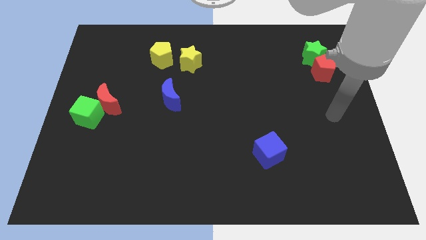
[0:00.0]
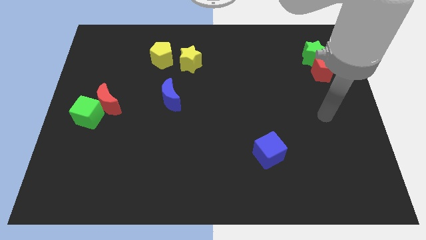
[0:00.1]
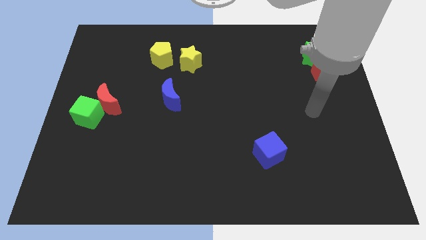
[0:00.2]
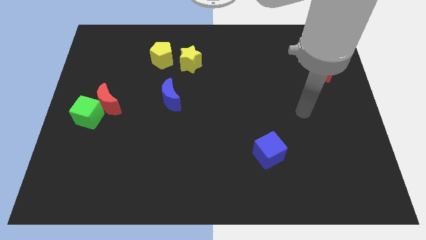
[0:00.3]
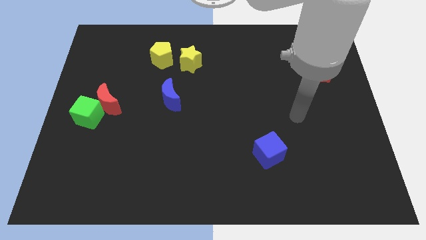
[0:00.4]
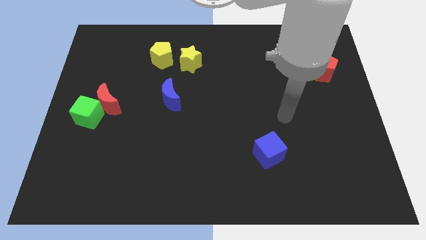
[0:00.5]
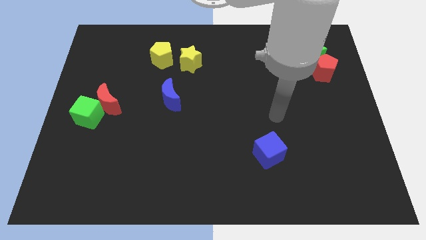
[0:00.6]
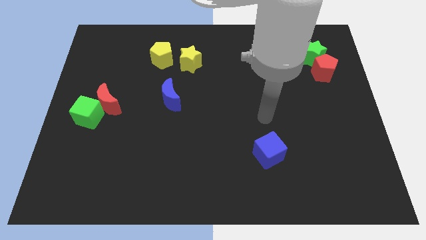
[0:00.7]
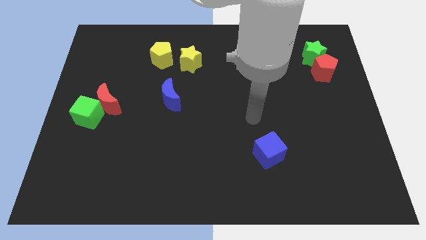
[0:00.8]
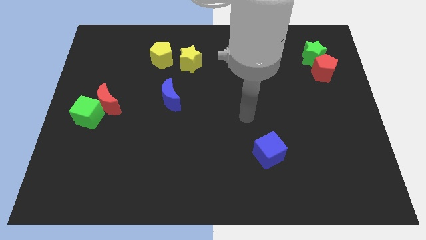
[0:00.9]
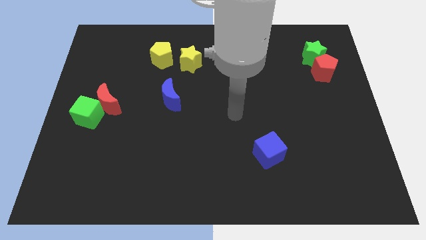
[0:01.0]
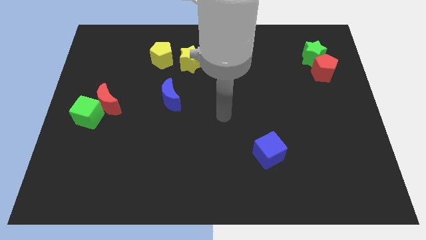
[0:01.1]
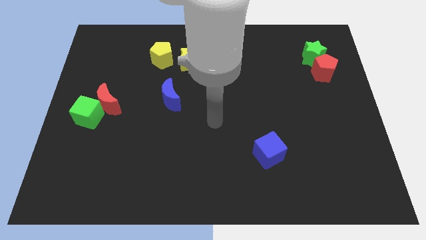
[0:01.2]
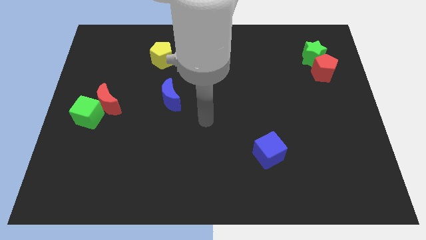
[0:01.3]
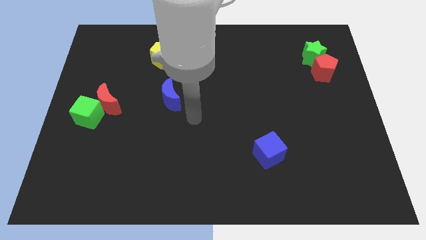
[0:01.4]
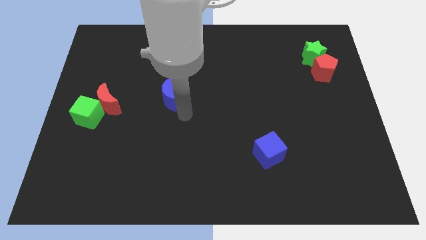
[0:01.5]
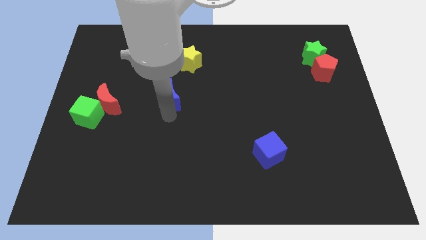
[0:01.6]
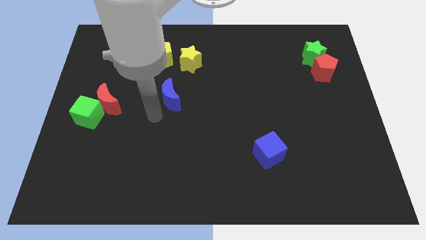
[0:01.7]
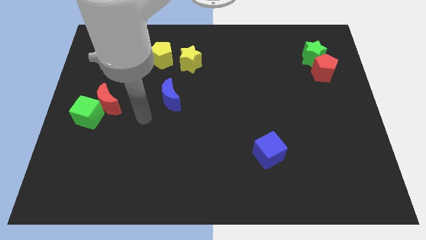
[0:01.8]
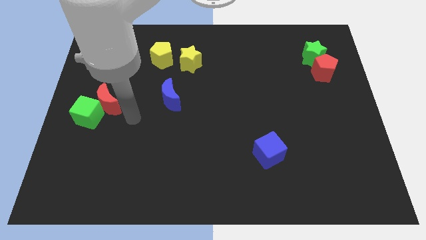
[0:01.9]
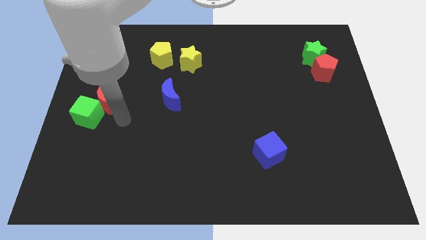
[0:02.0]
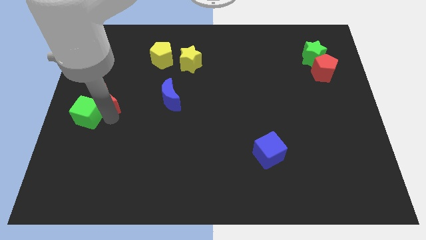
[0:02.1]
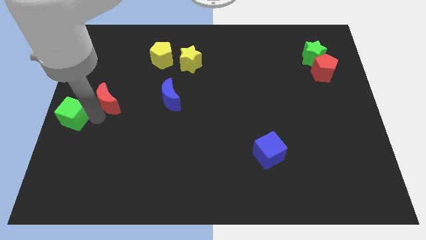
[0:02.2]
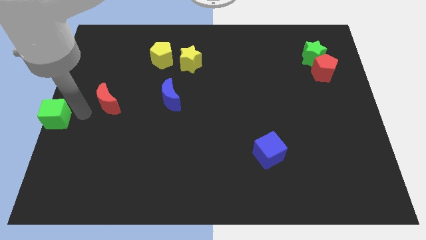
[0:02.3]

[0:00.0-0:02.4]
pull the red moon apart from the green cube

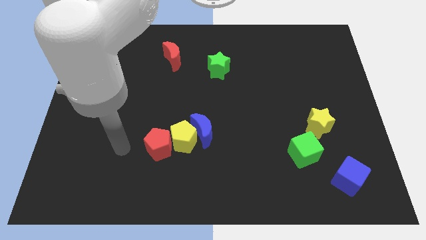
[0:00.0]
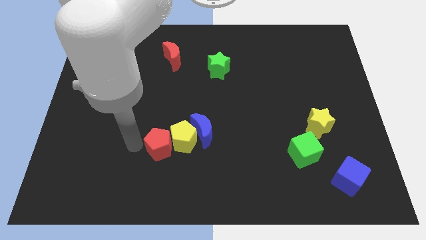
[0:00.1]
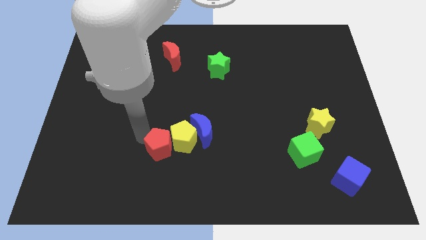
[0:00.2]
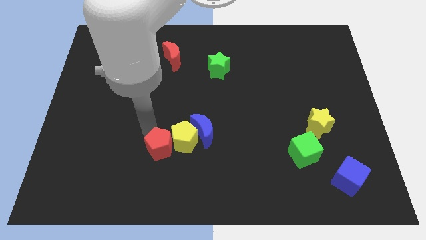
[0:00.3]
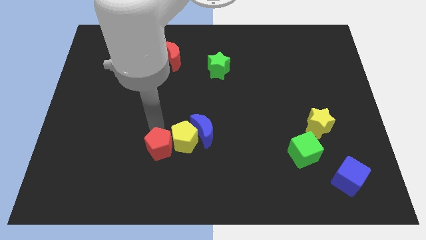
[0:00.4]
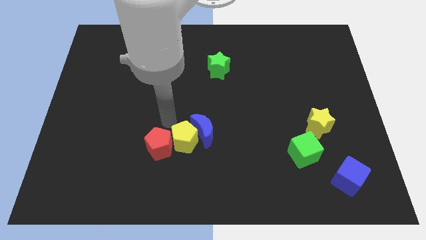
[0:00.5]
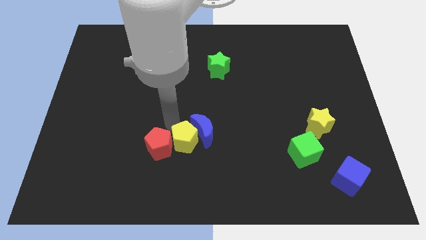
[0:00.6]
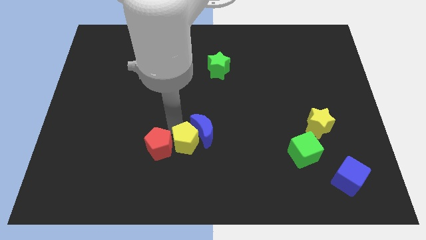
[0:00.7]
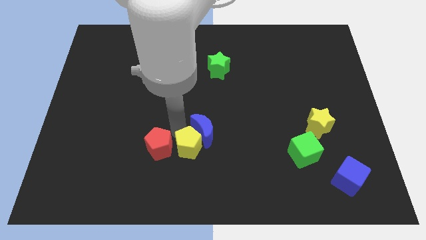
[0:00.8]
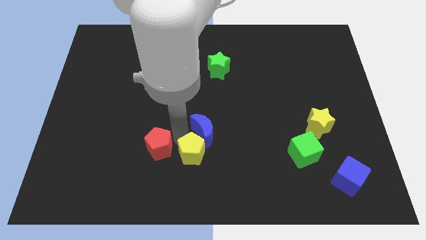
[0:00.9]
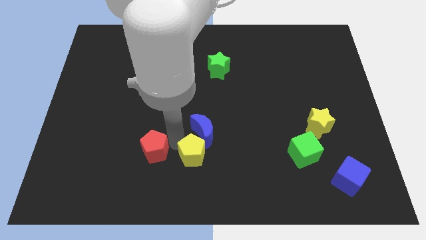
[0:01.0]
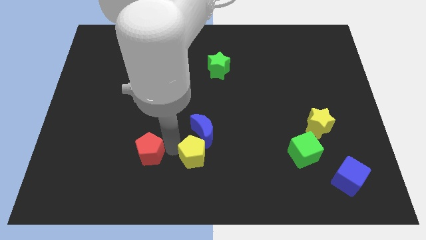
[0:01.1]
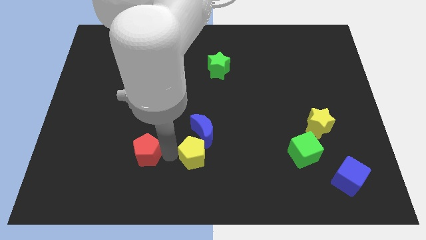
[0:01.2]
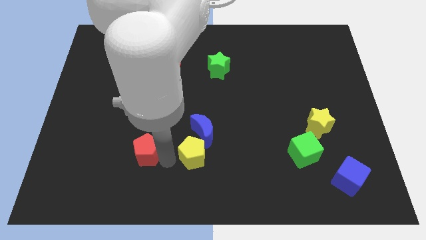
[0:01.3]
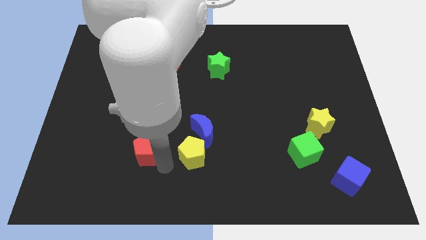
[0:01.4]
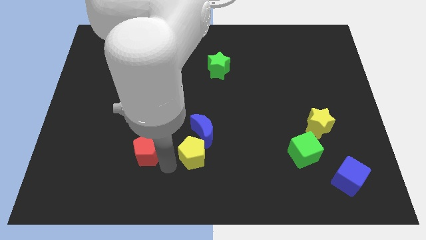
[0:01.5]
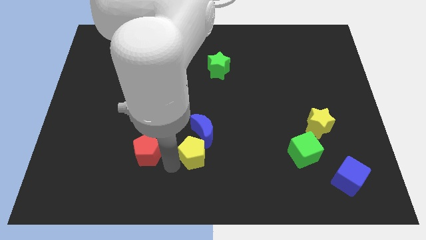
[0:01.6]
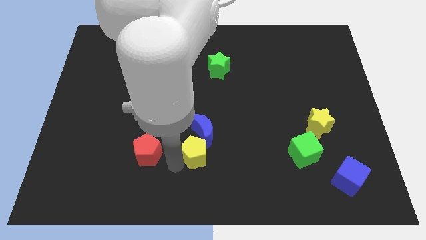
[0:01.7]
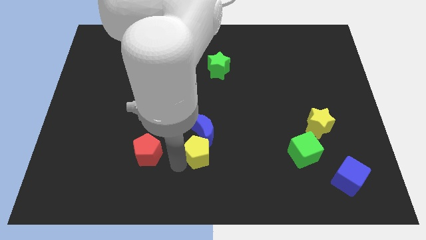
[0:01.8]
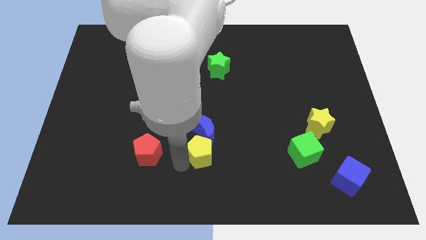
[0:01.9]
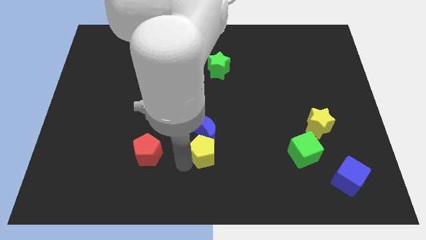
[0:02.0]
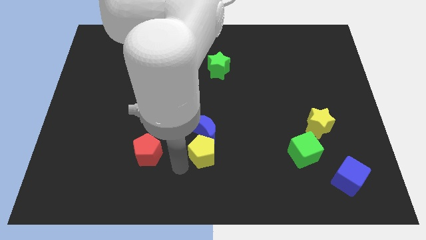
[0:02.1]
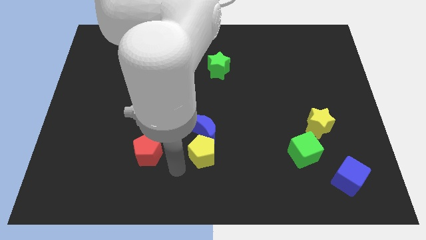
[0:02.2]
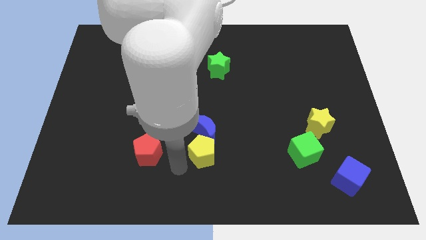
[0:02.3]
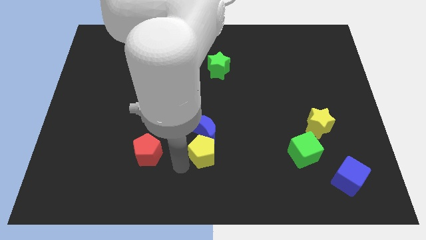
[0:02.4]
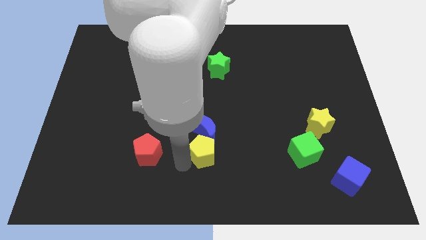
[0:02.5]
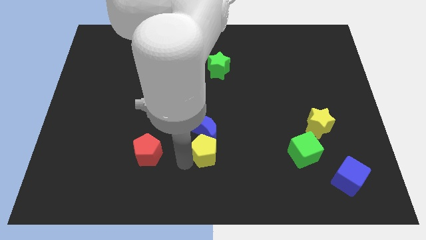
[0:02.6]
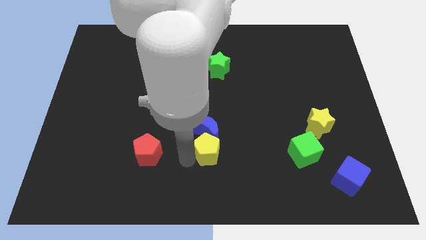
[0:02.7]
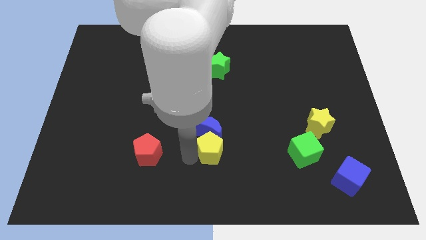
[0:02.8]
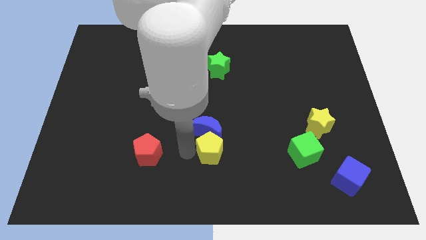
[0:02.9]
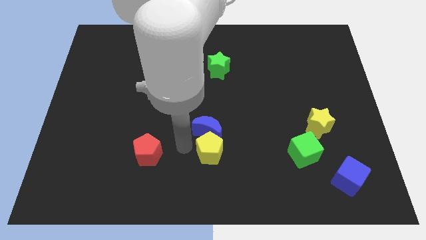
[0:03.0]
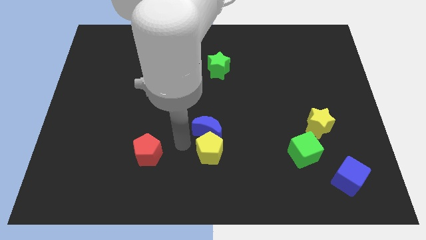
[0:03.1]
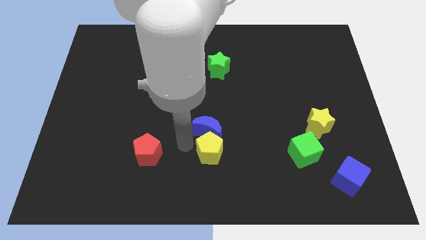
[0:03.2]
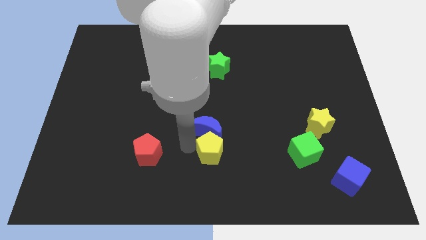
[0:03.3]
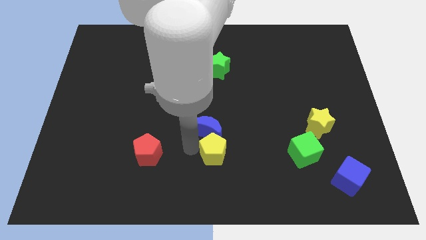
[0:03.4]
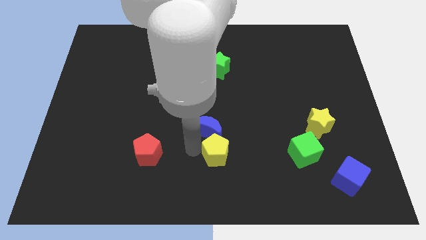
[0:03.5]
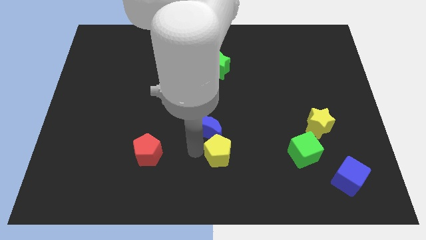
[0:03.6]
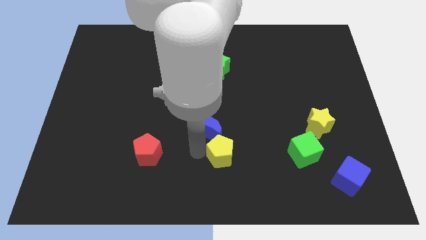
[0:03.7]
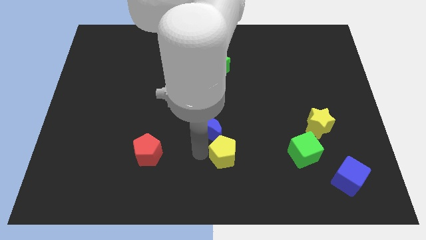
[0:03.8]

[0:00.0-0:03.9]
separate the yellow pentagon from the blue moon and red pentagon

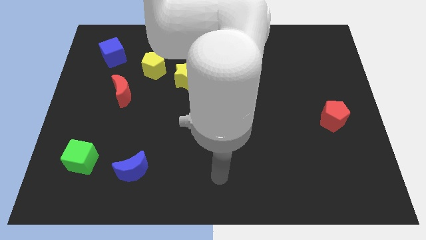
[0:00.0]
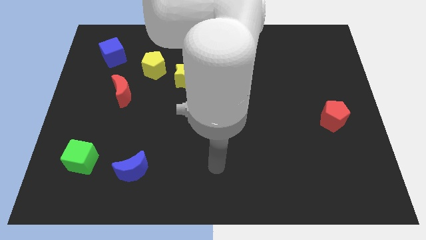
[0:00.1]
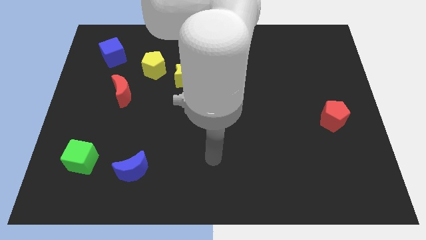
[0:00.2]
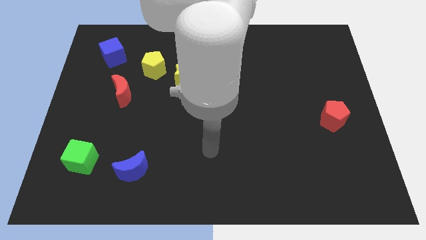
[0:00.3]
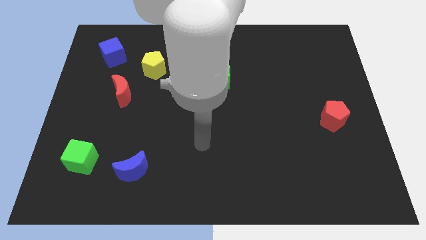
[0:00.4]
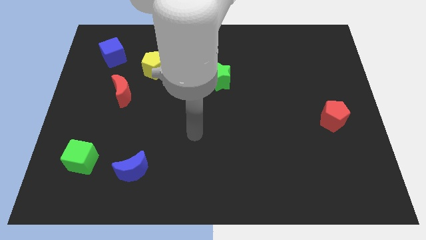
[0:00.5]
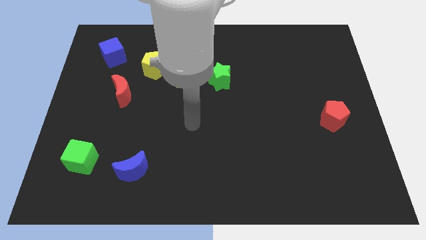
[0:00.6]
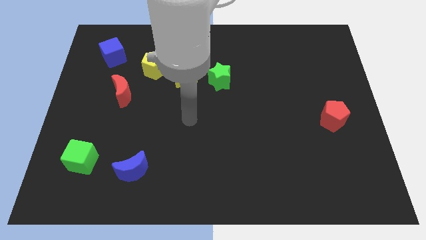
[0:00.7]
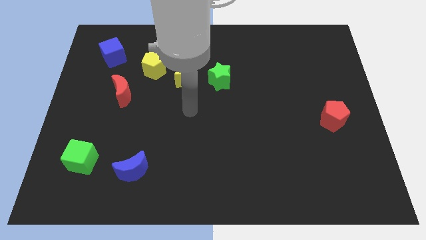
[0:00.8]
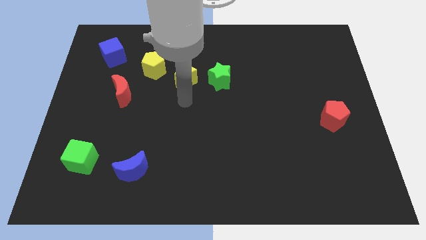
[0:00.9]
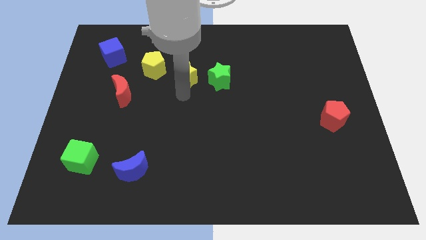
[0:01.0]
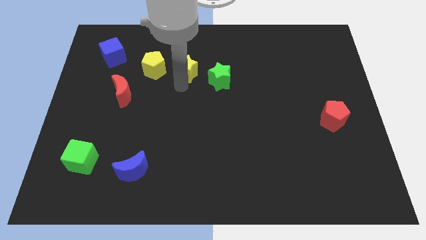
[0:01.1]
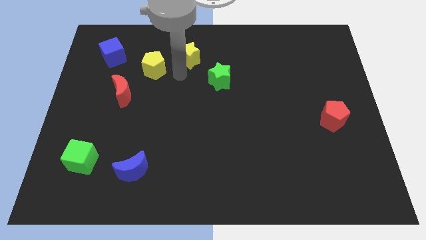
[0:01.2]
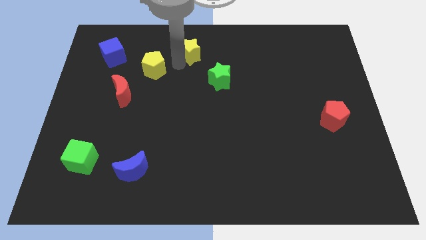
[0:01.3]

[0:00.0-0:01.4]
separate the yellow pentagon from the yellow star

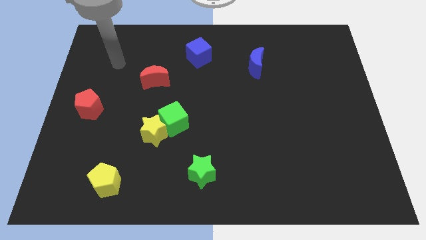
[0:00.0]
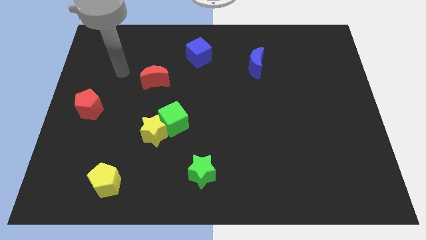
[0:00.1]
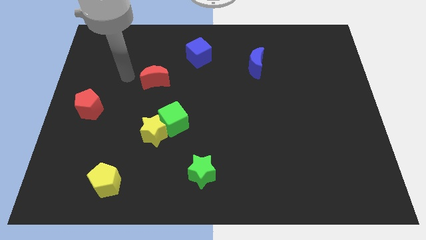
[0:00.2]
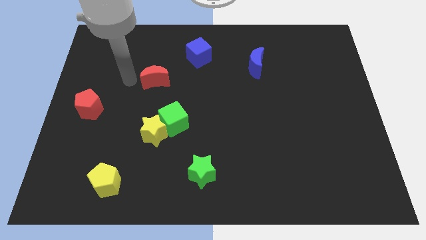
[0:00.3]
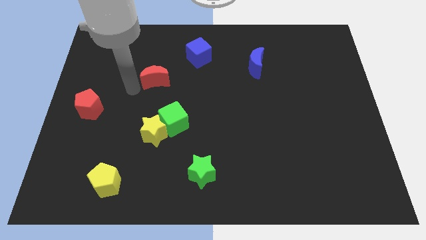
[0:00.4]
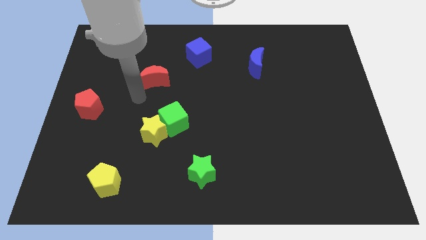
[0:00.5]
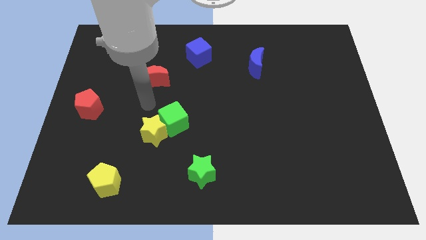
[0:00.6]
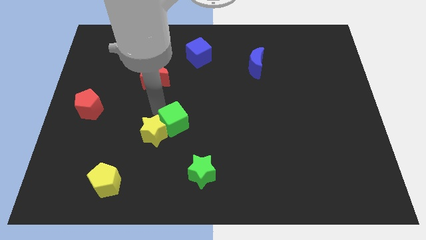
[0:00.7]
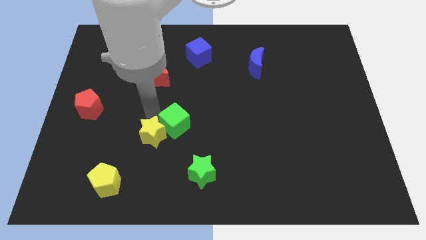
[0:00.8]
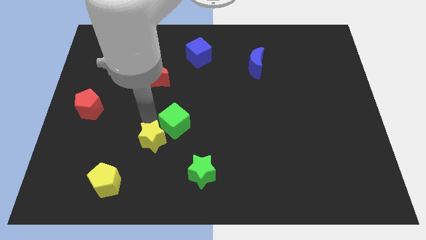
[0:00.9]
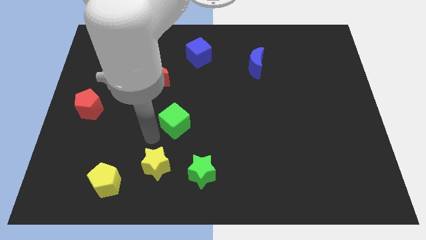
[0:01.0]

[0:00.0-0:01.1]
separate the green cube from the yellow star

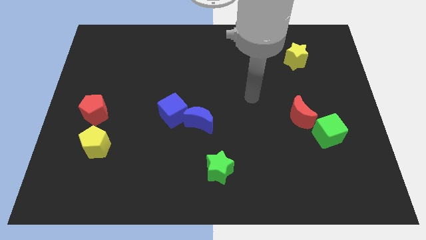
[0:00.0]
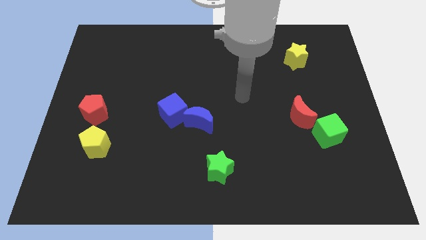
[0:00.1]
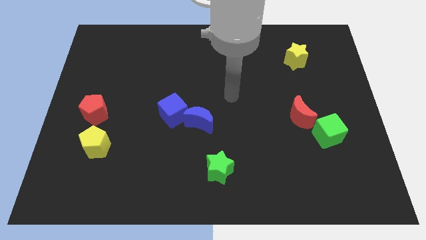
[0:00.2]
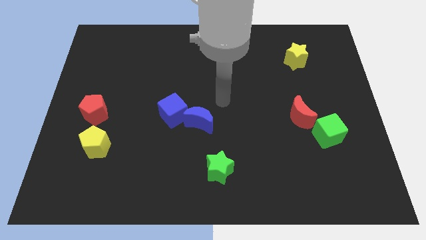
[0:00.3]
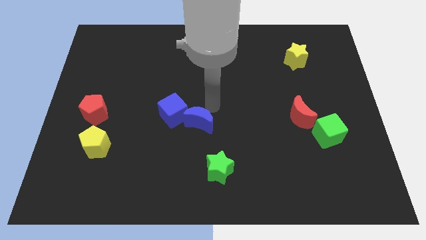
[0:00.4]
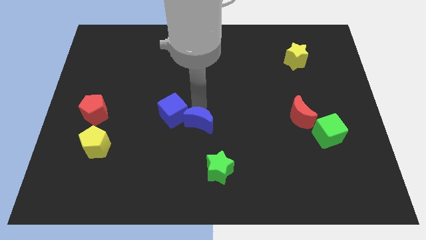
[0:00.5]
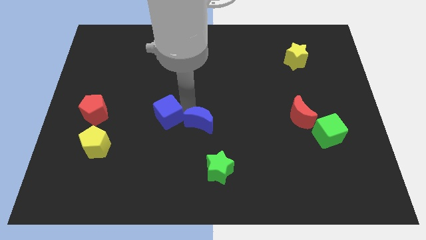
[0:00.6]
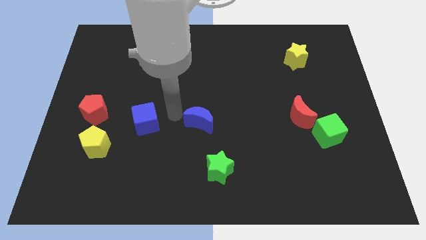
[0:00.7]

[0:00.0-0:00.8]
pull the blue moon apart from the blue cube
